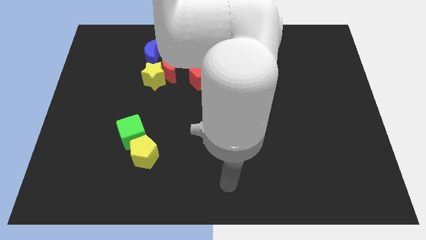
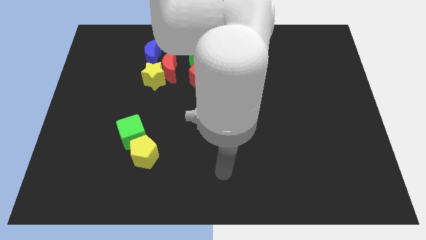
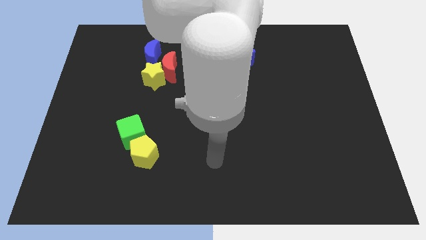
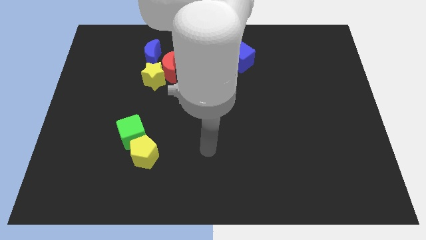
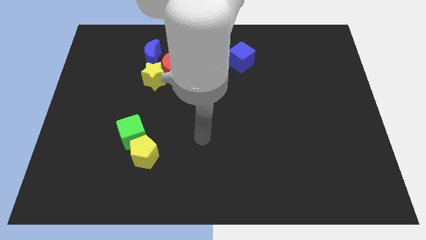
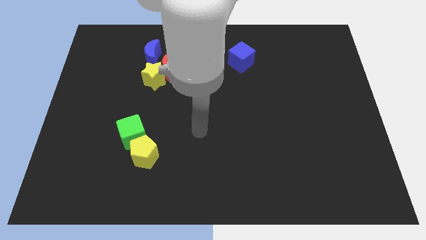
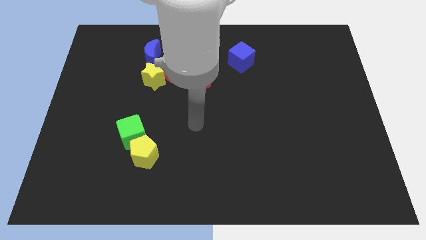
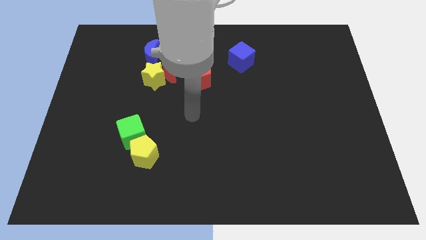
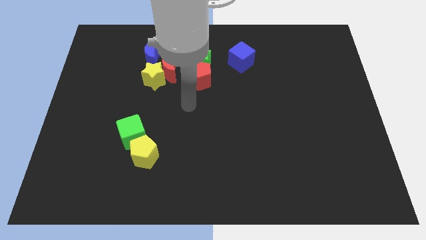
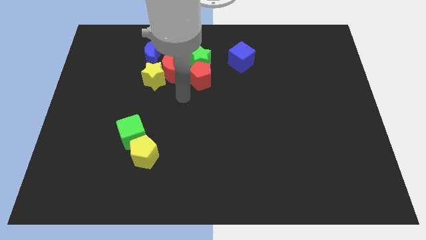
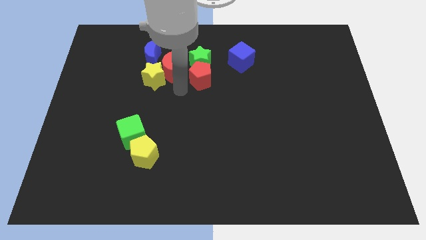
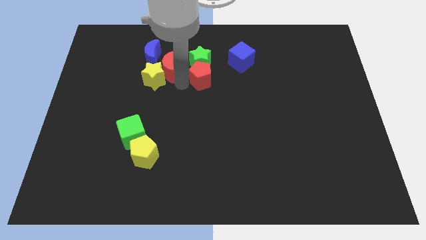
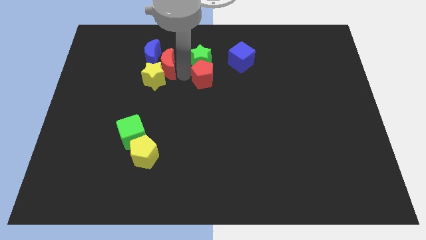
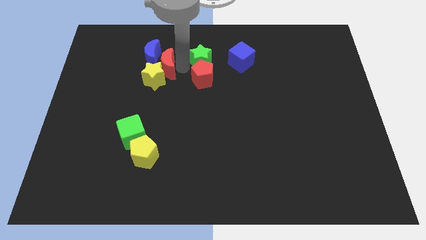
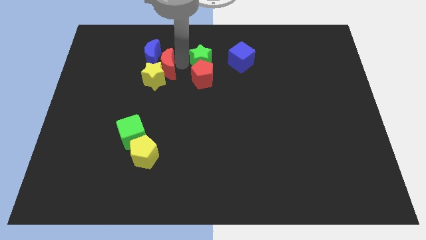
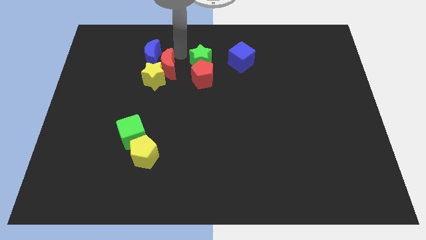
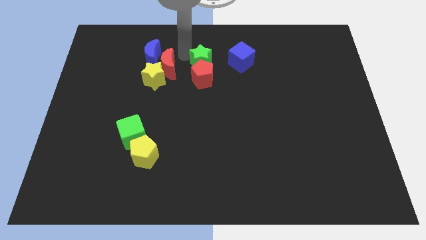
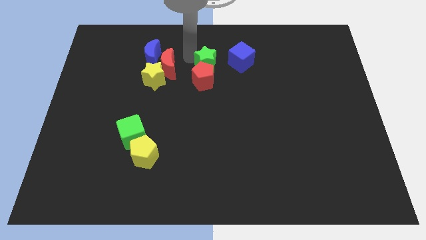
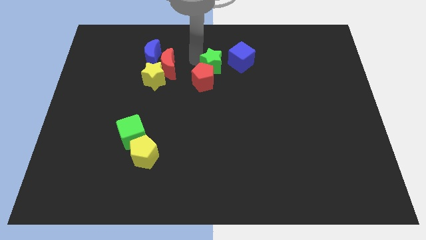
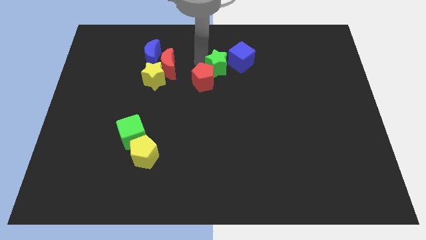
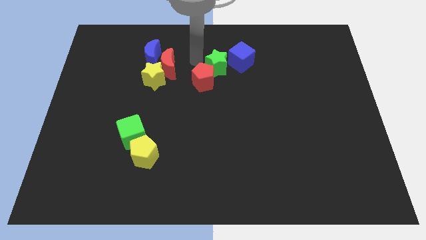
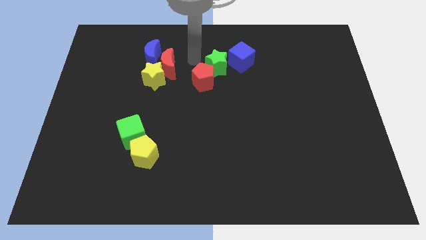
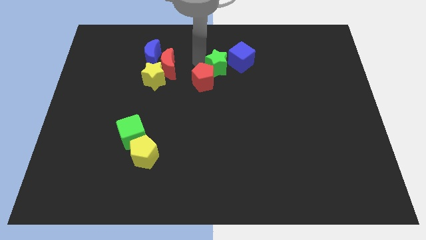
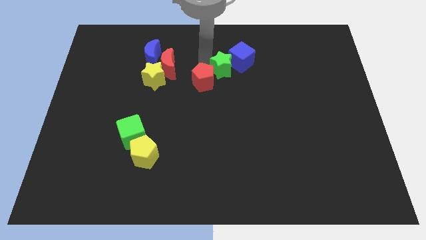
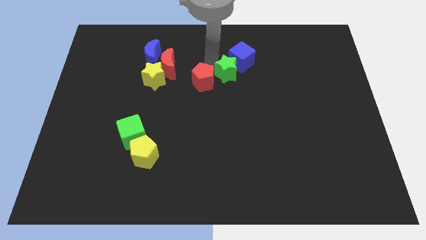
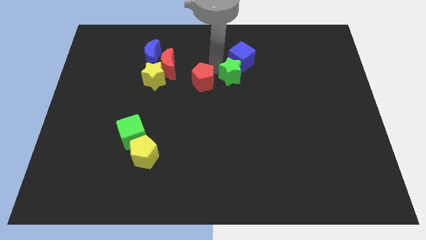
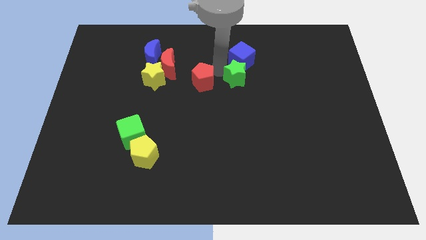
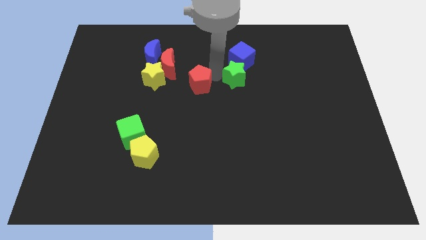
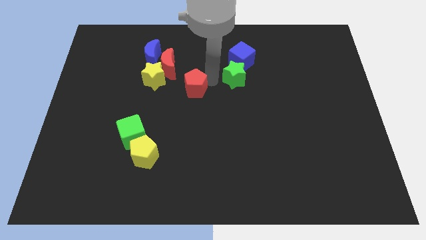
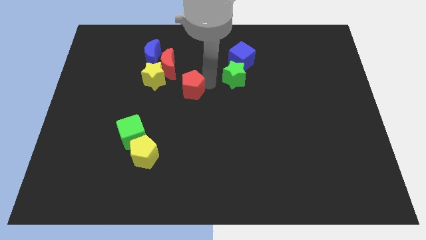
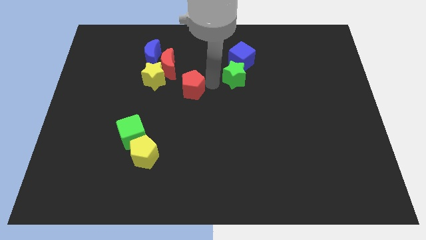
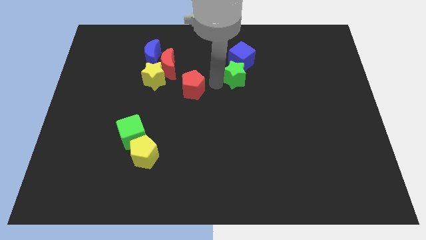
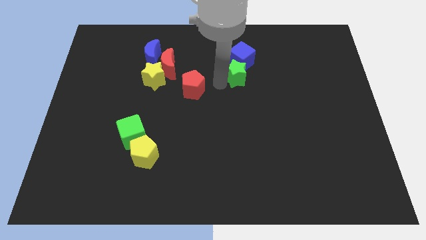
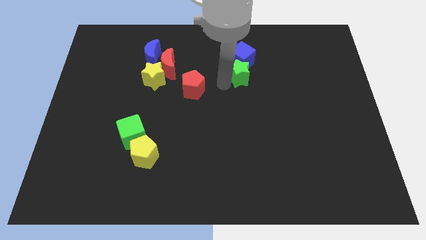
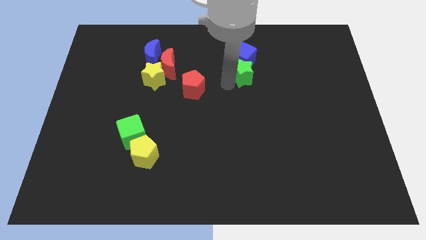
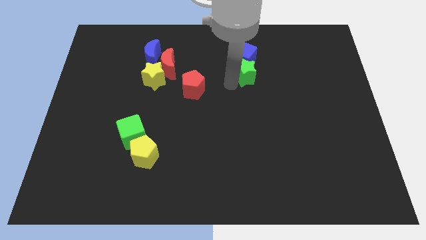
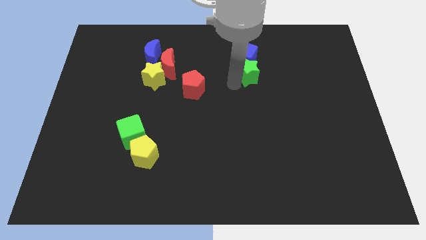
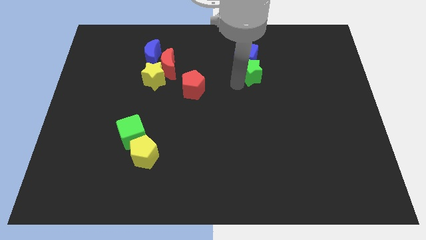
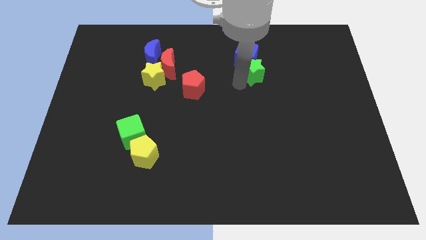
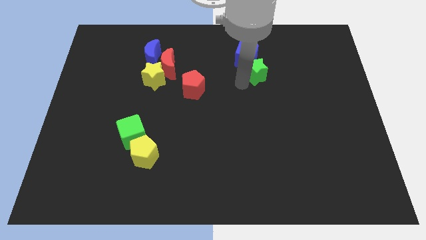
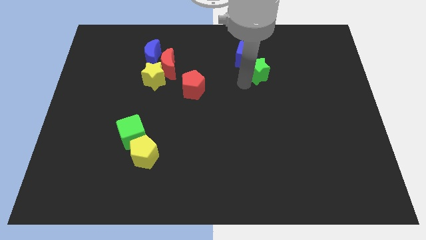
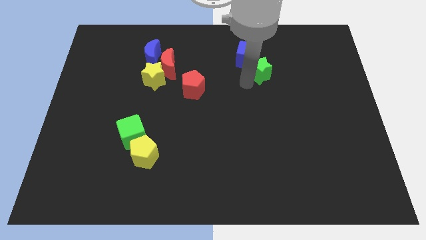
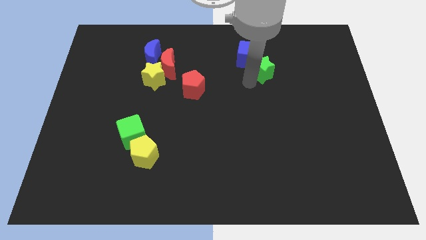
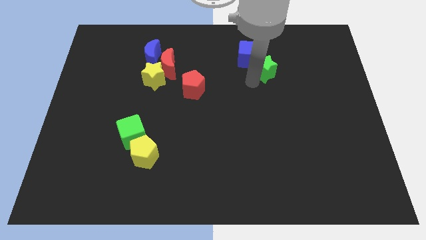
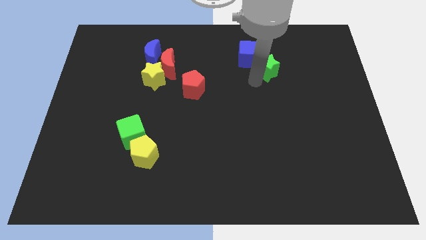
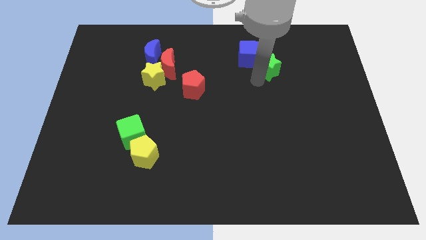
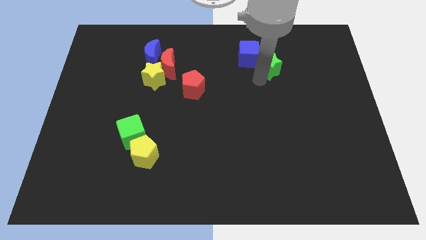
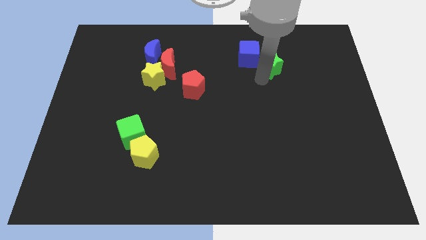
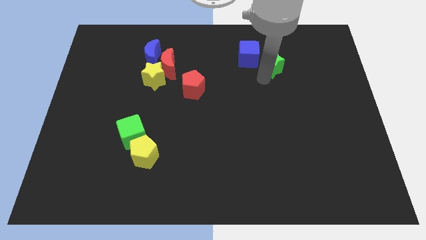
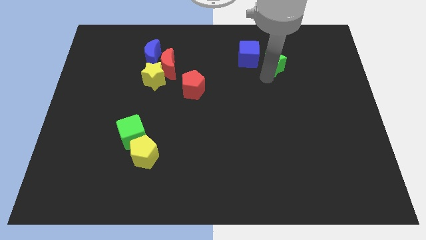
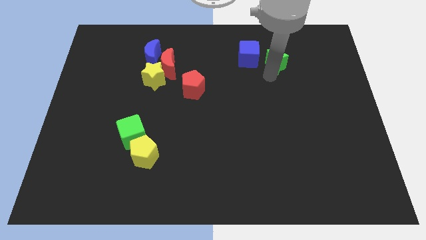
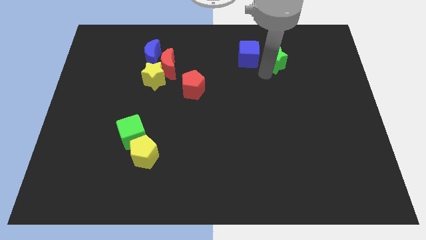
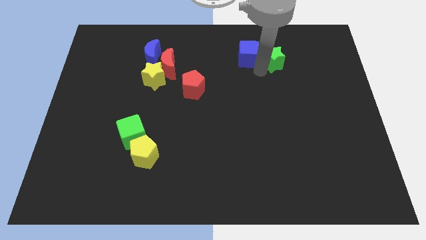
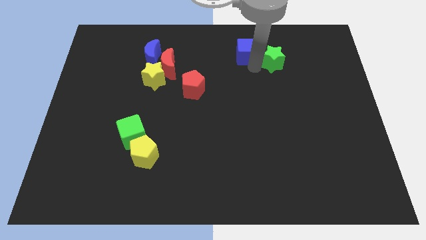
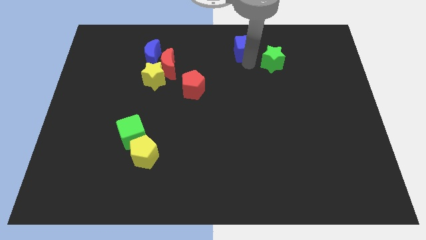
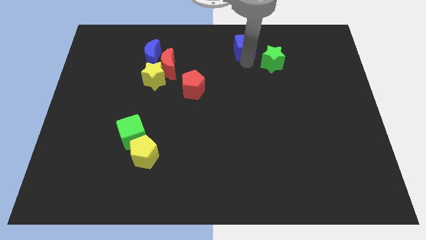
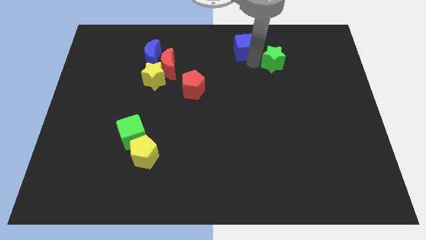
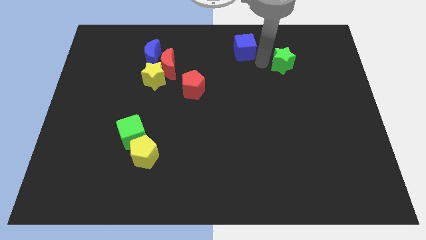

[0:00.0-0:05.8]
slide the green star right

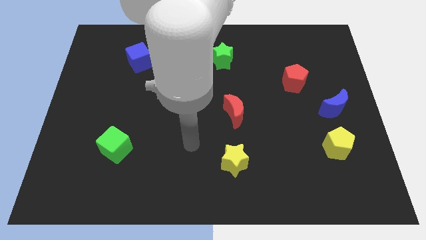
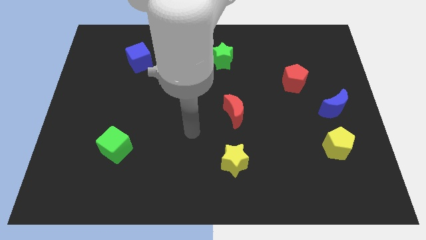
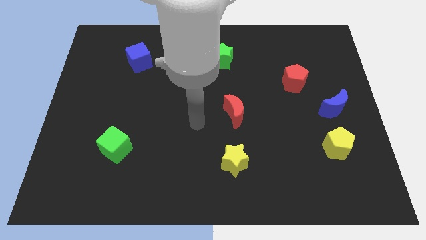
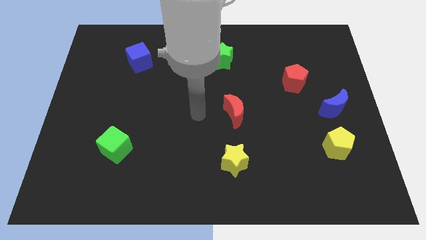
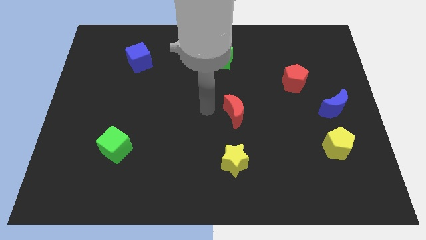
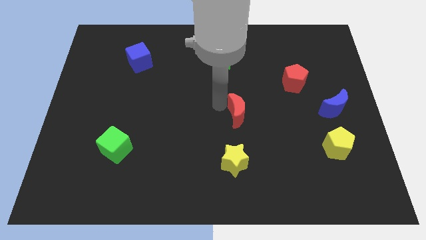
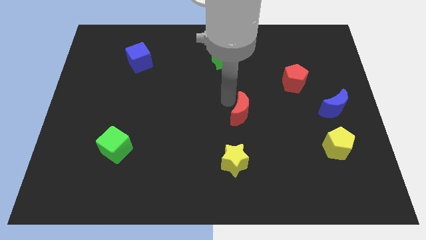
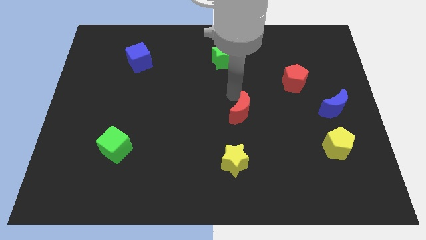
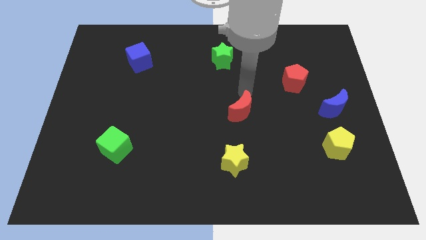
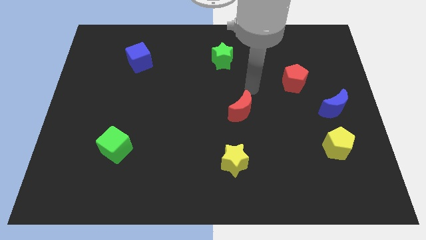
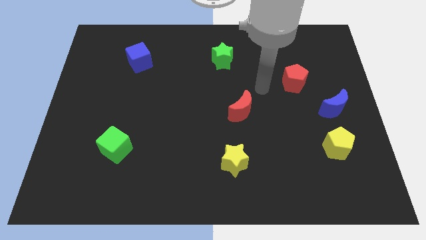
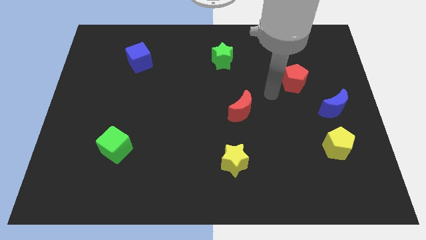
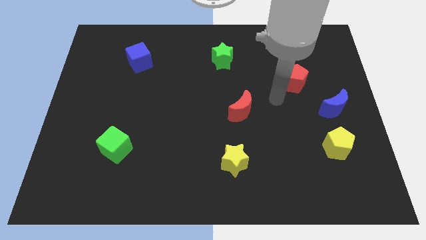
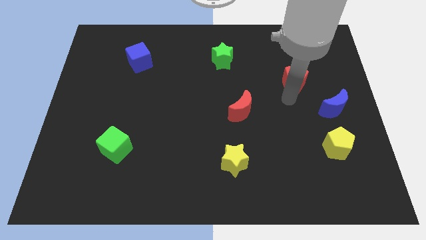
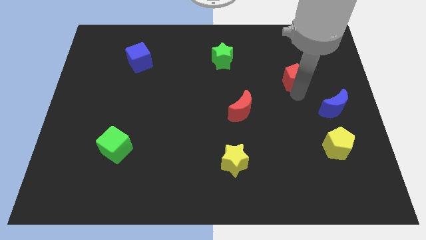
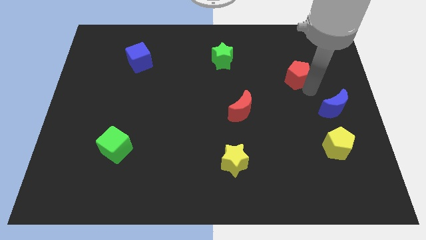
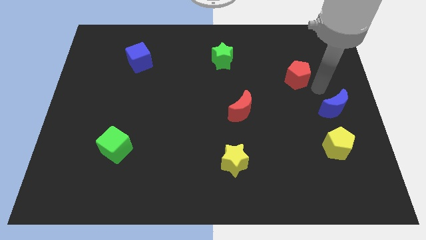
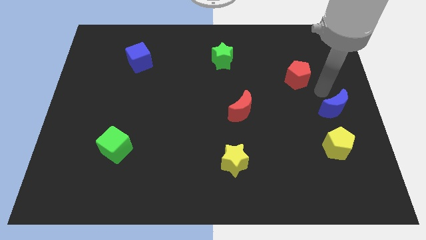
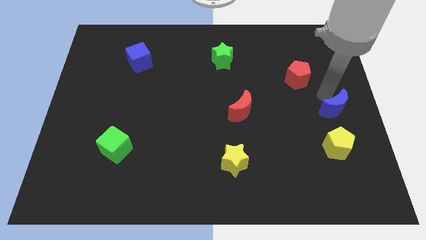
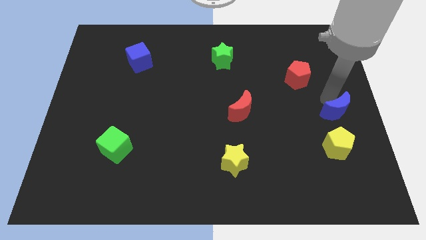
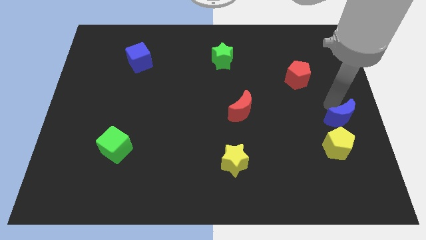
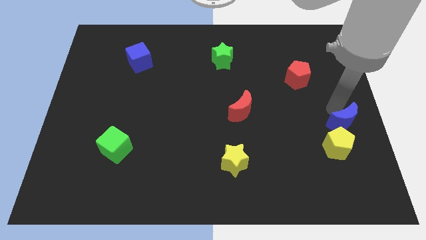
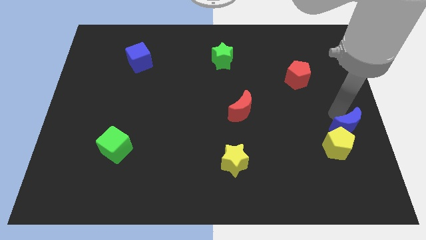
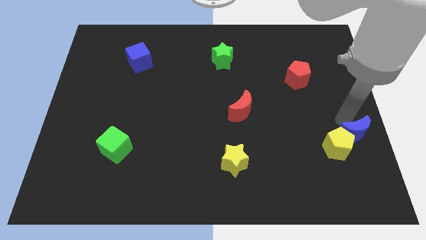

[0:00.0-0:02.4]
slightly slide the blue moon down
